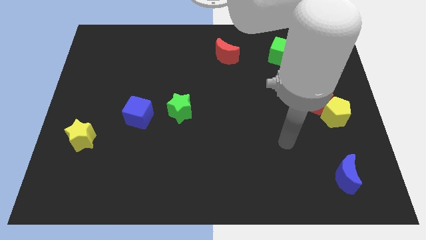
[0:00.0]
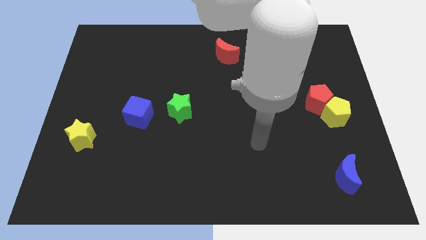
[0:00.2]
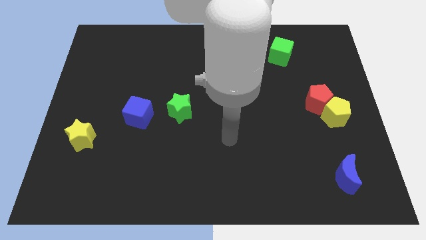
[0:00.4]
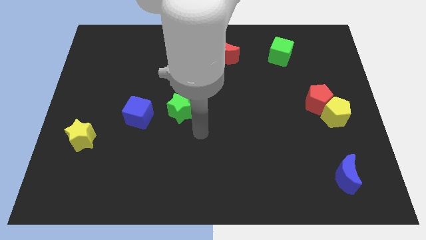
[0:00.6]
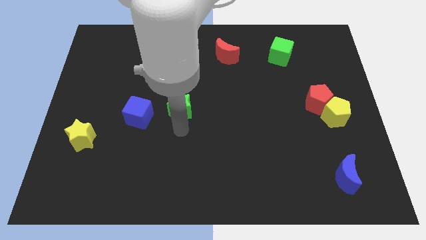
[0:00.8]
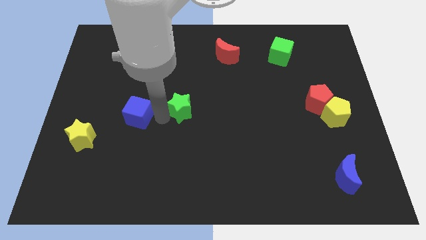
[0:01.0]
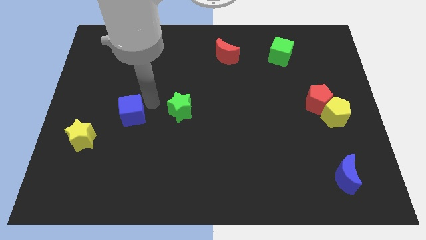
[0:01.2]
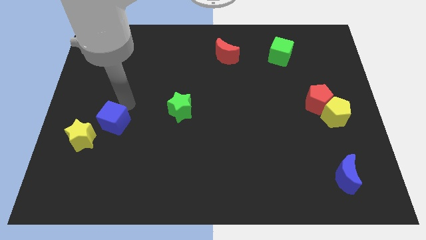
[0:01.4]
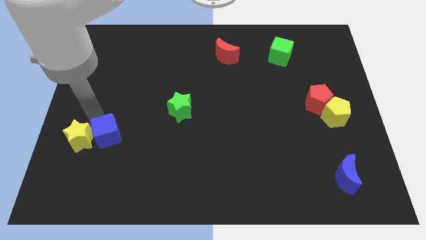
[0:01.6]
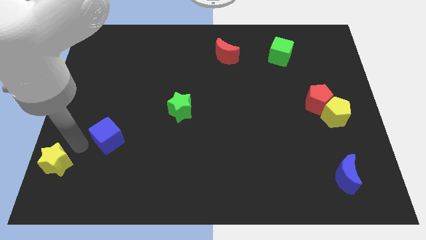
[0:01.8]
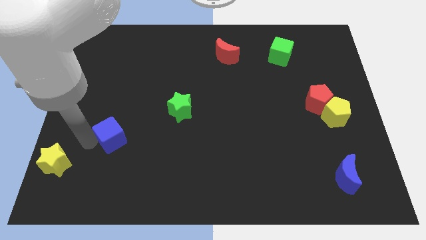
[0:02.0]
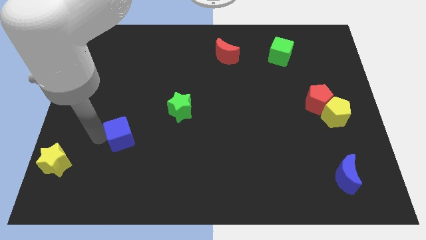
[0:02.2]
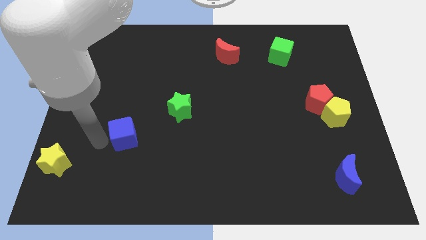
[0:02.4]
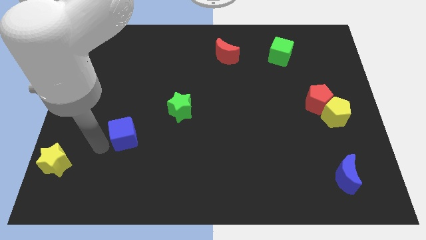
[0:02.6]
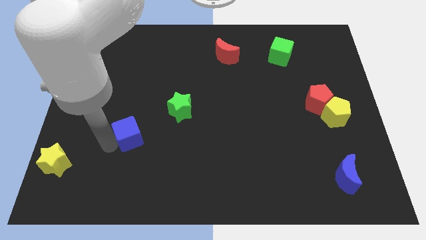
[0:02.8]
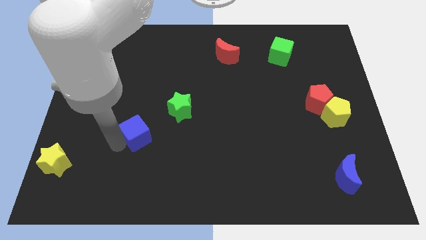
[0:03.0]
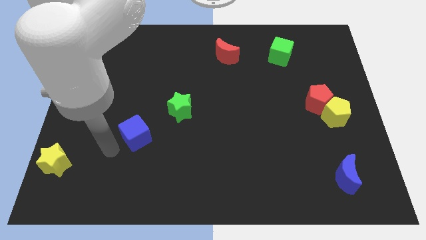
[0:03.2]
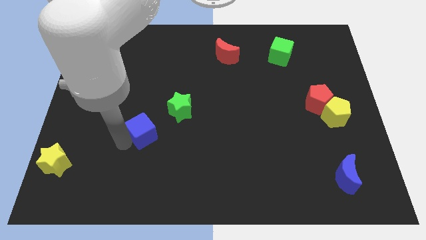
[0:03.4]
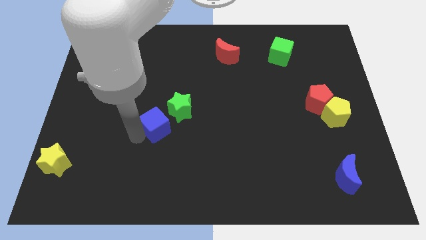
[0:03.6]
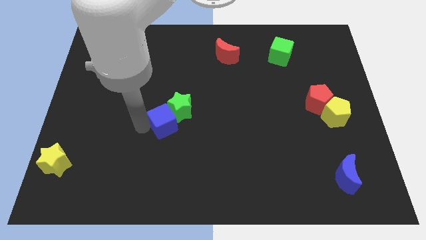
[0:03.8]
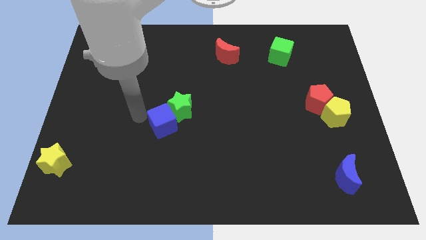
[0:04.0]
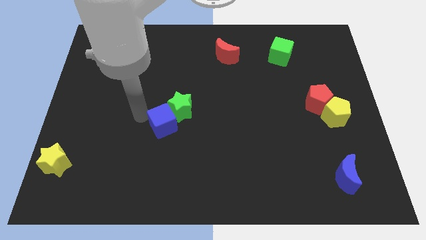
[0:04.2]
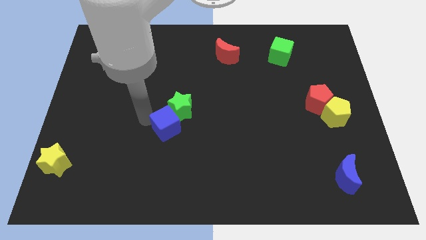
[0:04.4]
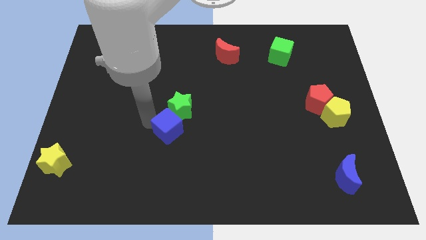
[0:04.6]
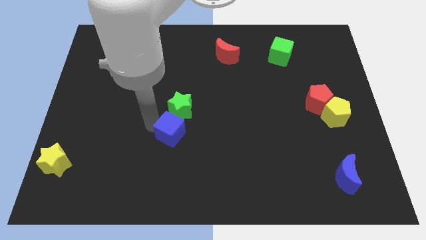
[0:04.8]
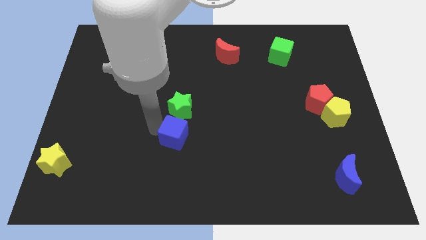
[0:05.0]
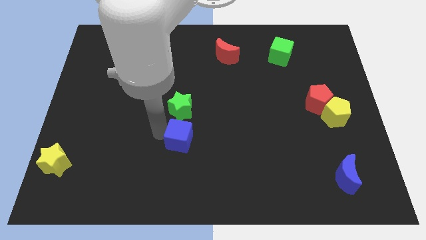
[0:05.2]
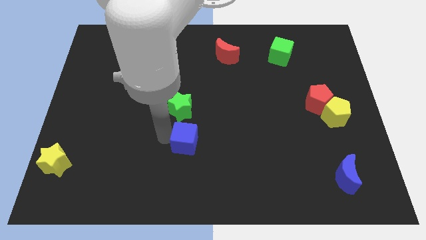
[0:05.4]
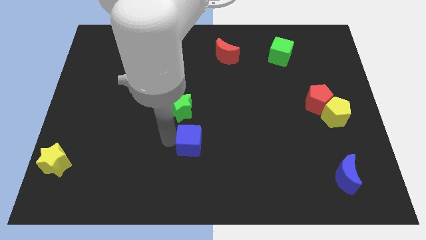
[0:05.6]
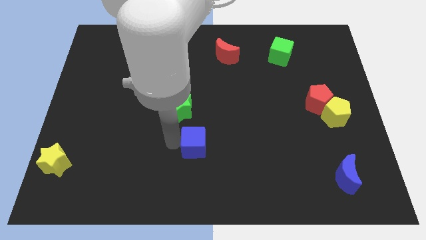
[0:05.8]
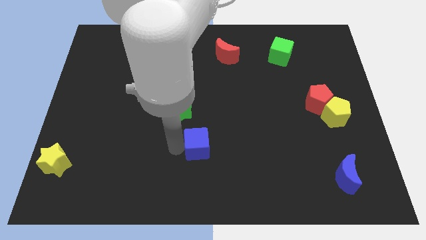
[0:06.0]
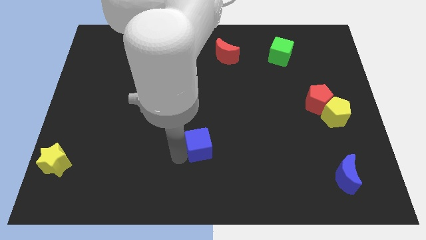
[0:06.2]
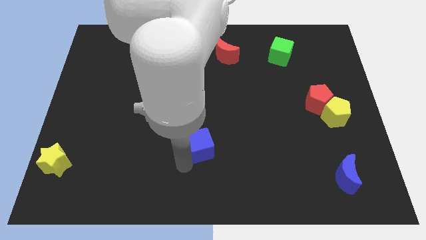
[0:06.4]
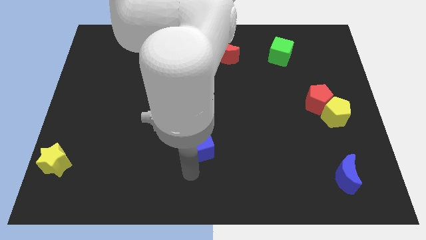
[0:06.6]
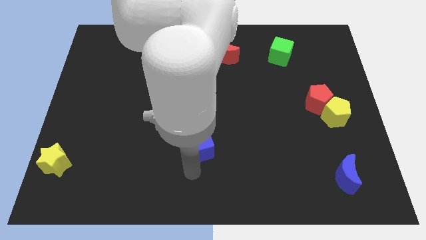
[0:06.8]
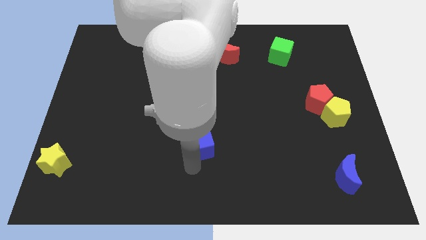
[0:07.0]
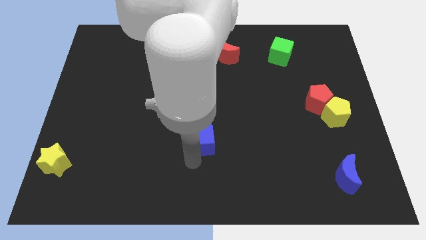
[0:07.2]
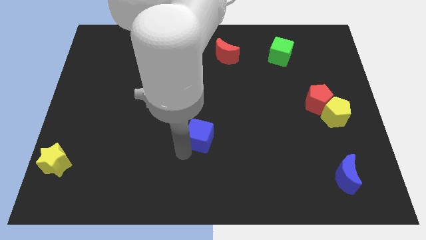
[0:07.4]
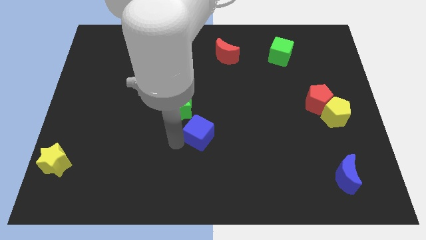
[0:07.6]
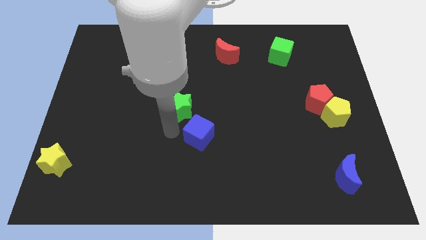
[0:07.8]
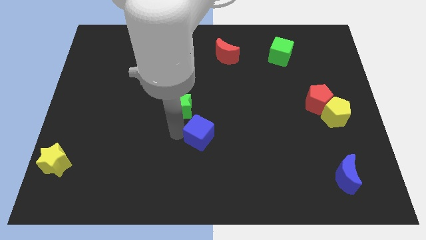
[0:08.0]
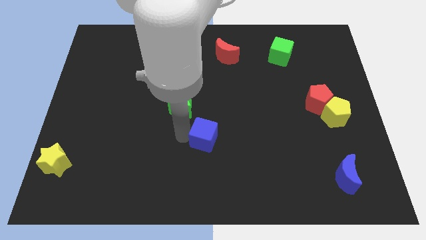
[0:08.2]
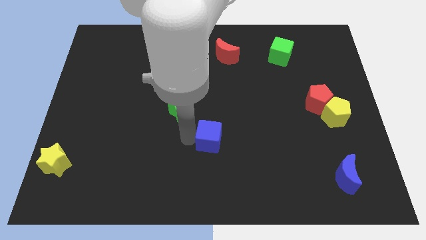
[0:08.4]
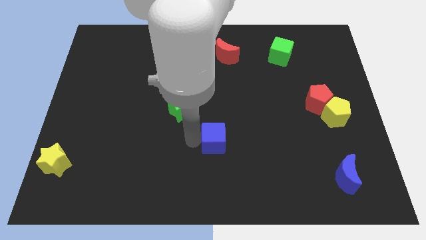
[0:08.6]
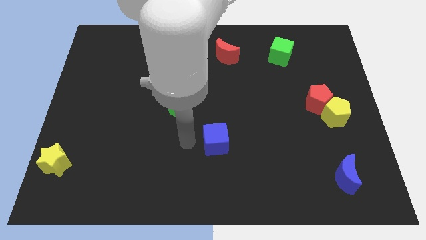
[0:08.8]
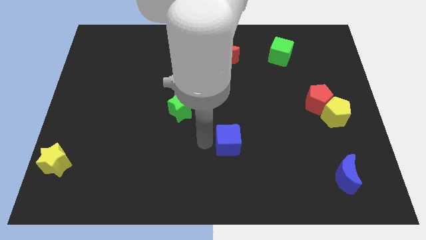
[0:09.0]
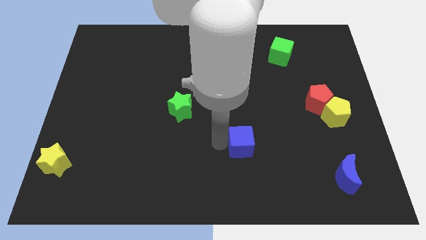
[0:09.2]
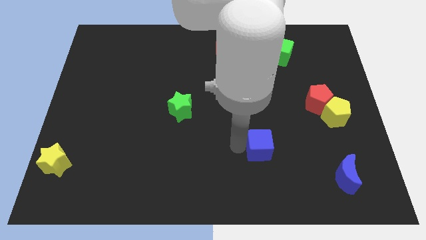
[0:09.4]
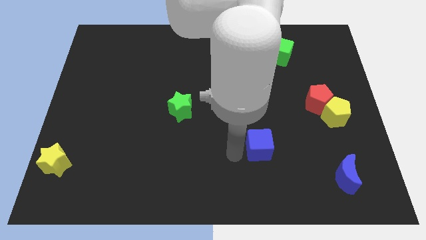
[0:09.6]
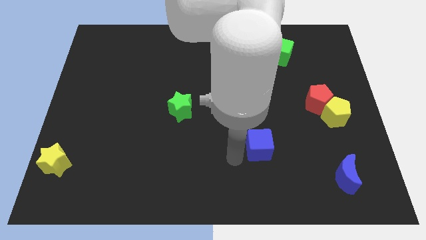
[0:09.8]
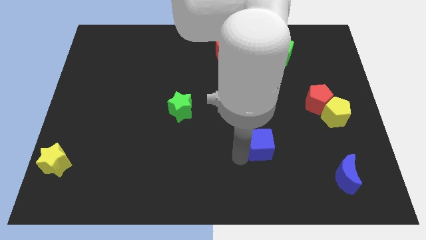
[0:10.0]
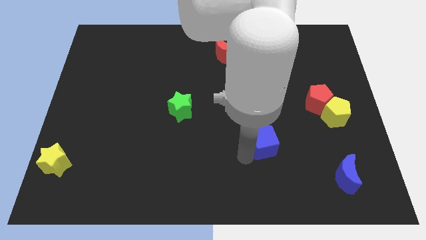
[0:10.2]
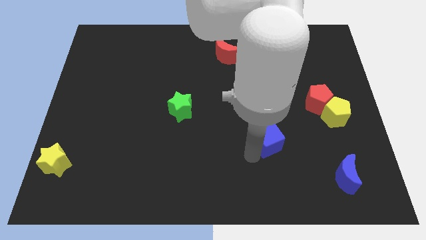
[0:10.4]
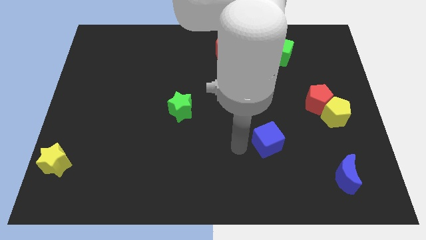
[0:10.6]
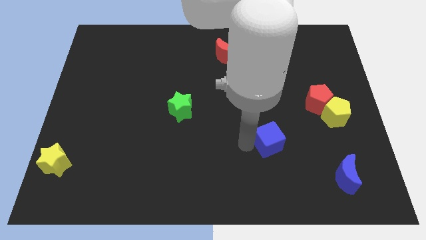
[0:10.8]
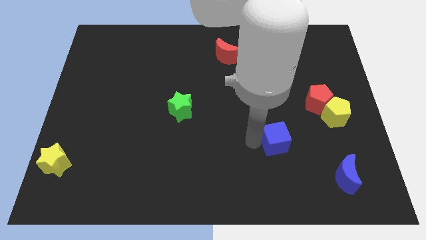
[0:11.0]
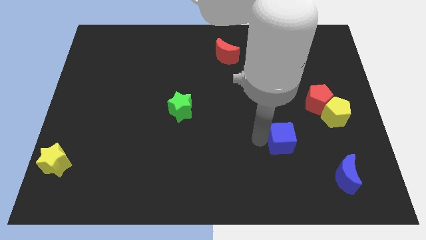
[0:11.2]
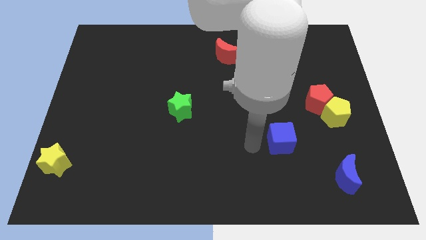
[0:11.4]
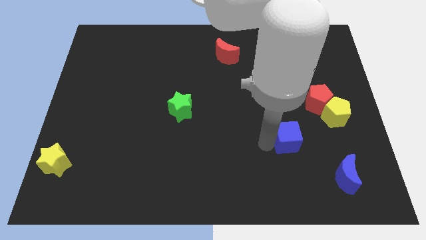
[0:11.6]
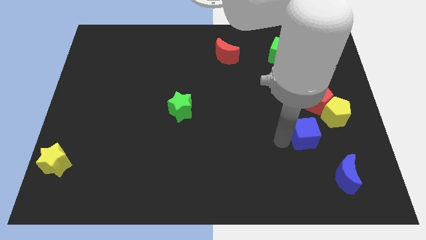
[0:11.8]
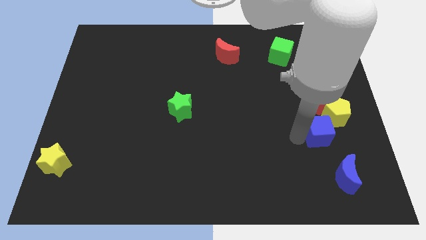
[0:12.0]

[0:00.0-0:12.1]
push the blue cube to the top of the blue moon
